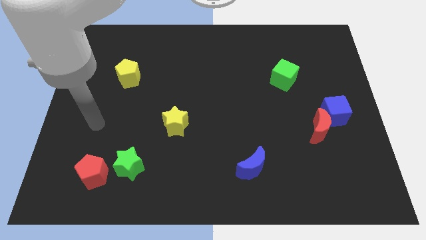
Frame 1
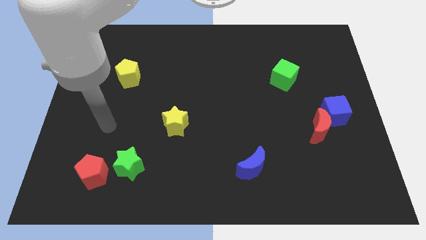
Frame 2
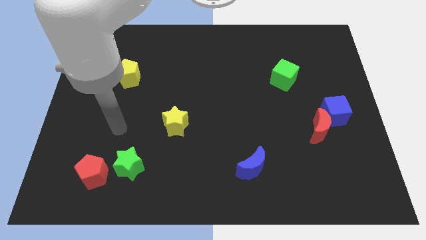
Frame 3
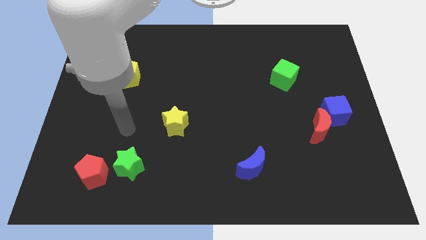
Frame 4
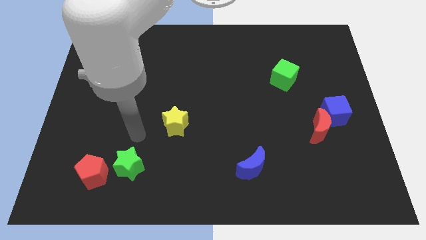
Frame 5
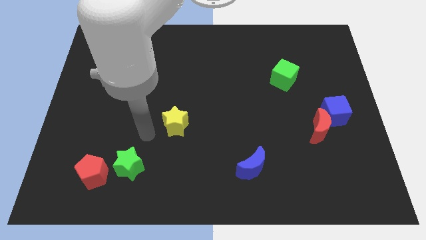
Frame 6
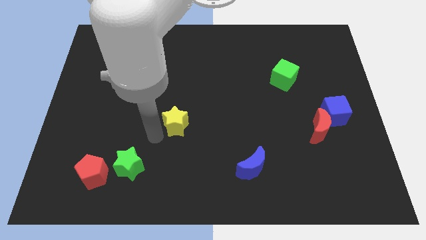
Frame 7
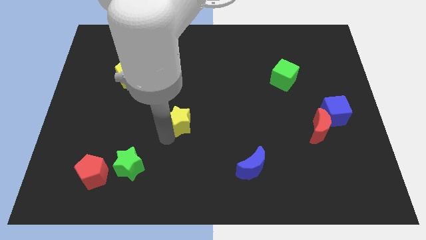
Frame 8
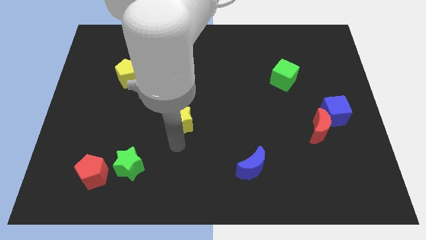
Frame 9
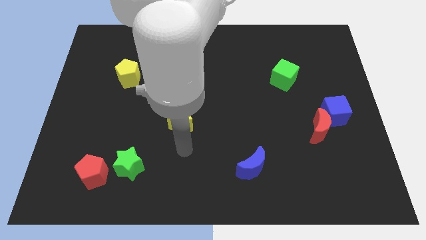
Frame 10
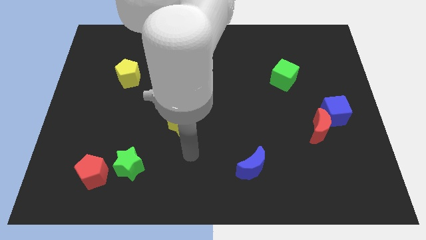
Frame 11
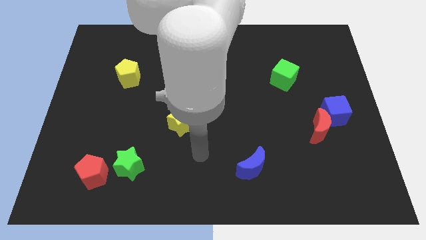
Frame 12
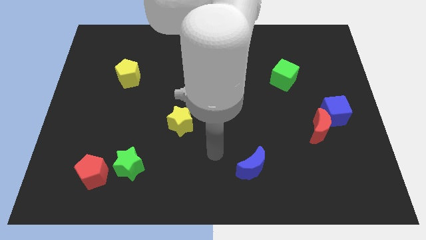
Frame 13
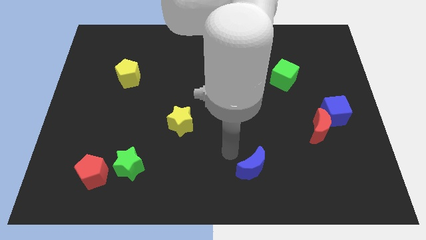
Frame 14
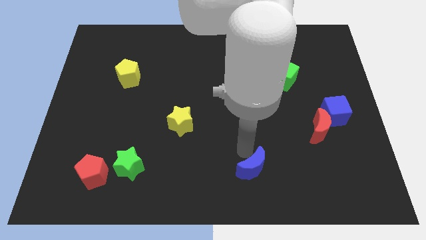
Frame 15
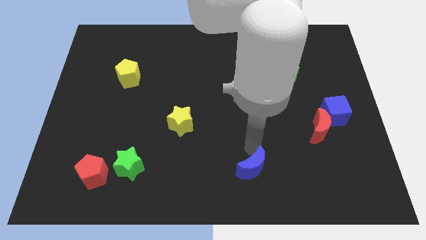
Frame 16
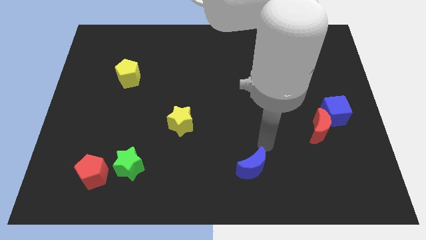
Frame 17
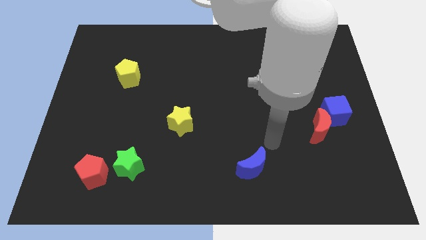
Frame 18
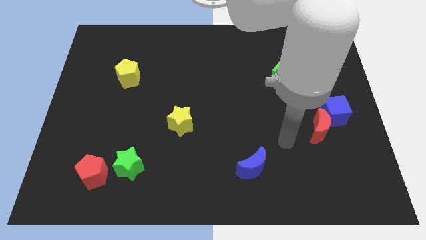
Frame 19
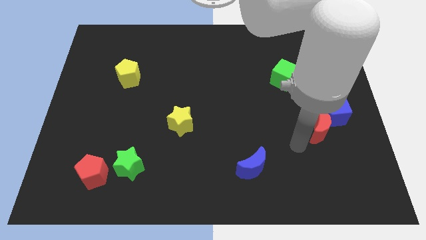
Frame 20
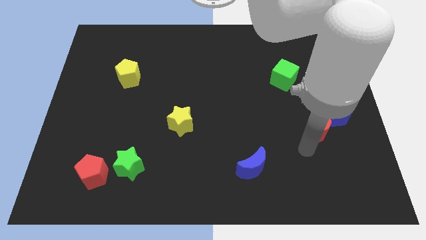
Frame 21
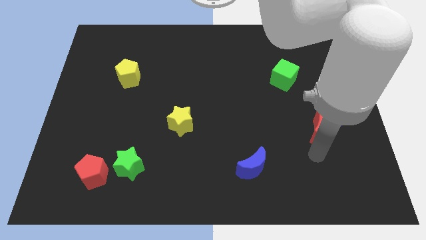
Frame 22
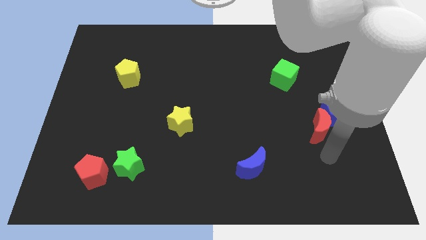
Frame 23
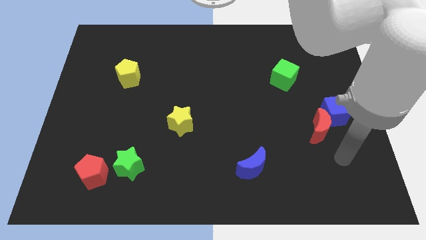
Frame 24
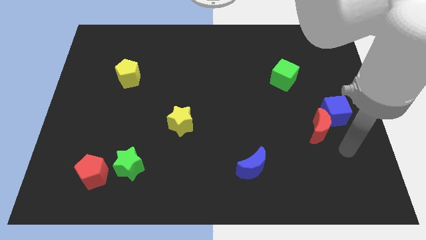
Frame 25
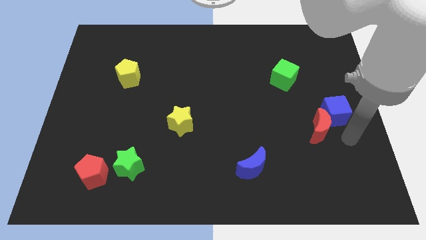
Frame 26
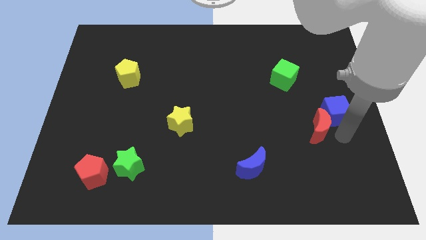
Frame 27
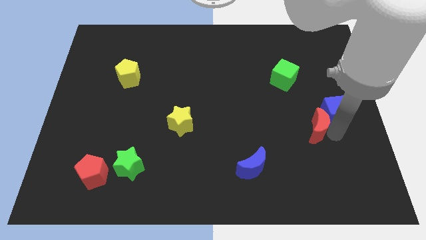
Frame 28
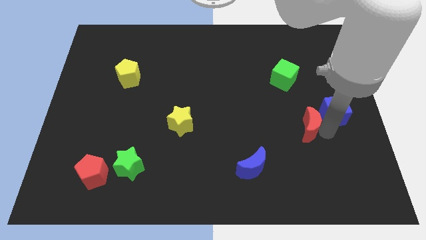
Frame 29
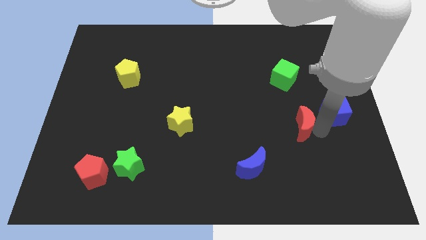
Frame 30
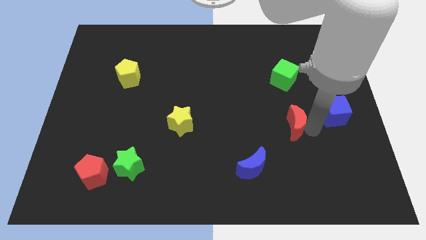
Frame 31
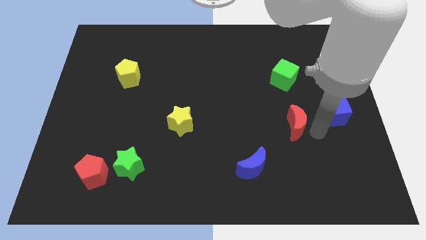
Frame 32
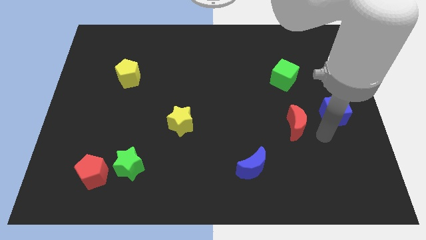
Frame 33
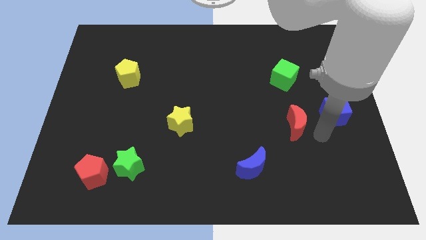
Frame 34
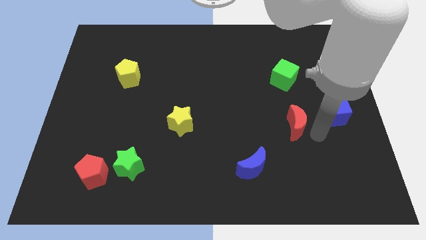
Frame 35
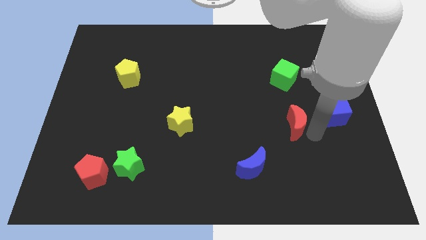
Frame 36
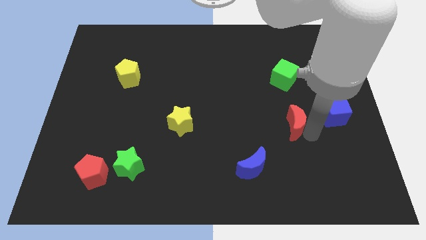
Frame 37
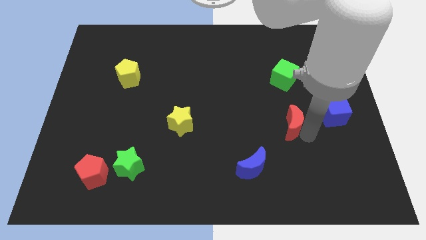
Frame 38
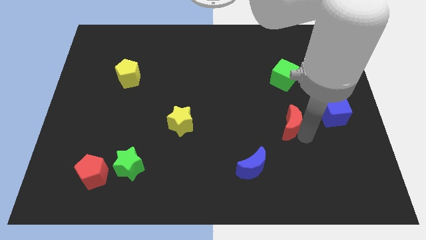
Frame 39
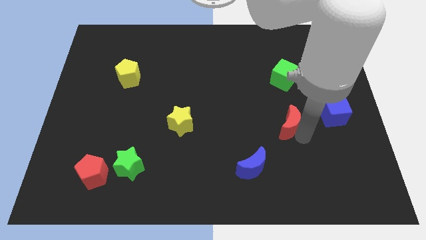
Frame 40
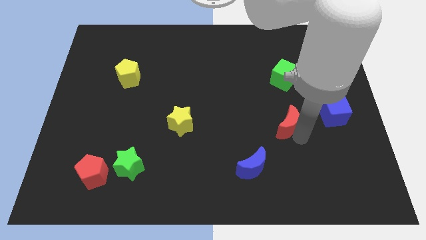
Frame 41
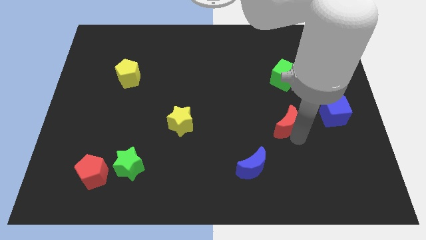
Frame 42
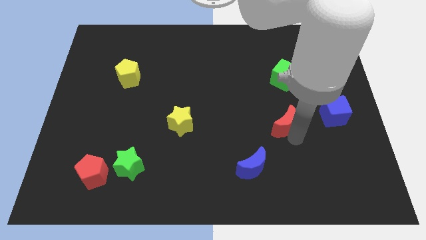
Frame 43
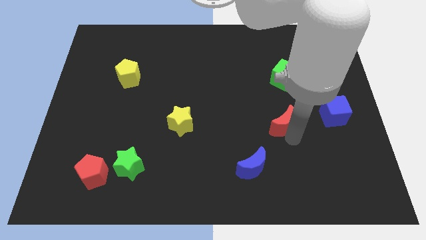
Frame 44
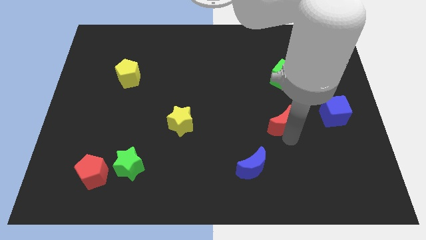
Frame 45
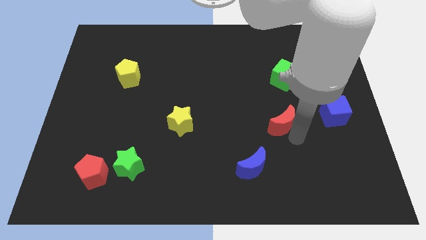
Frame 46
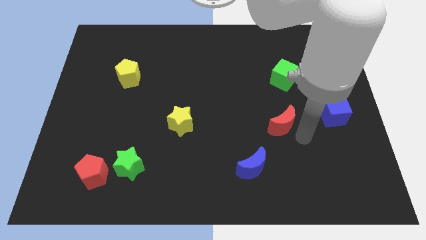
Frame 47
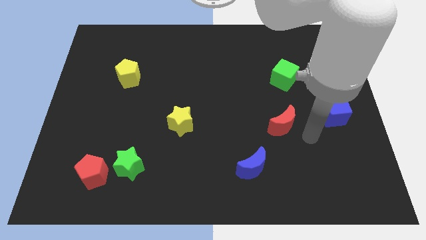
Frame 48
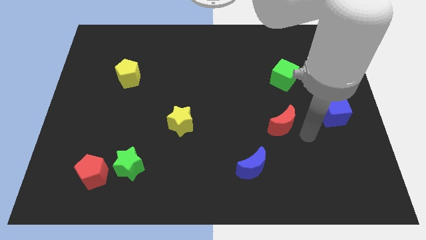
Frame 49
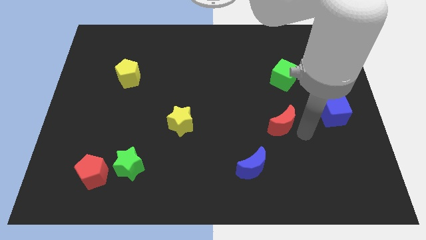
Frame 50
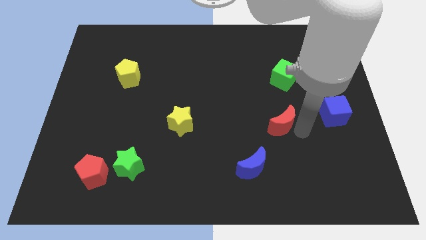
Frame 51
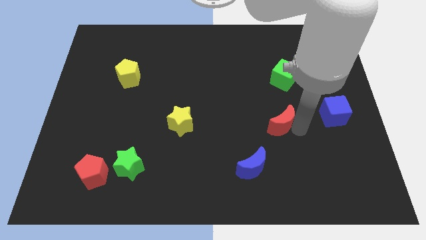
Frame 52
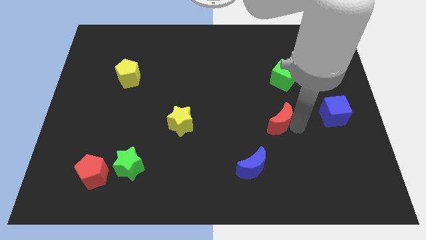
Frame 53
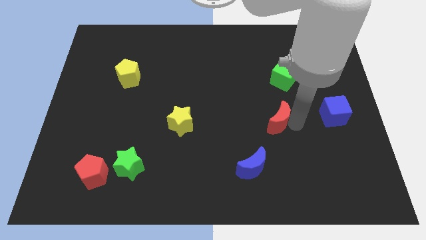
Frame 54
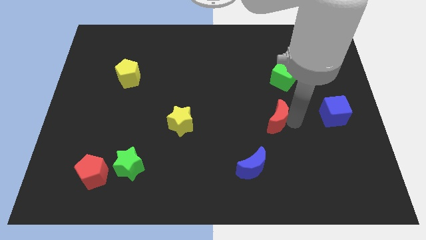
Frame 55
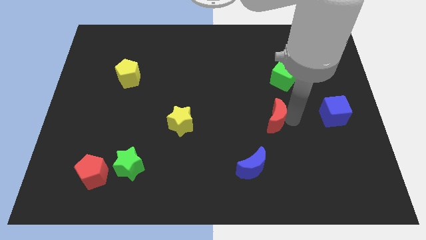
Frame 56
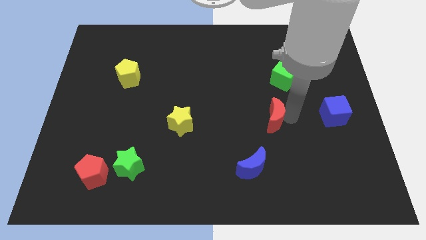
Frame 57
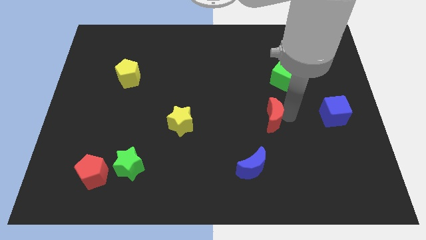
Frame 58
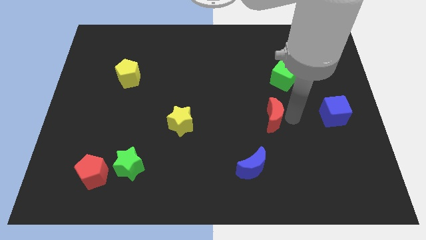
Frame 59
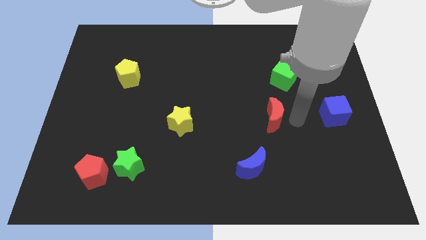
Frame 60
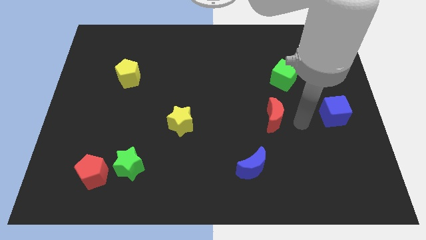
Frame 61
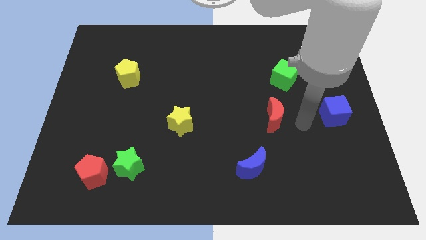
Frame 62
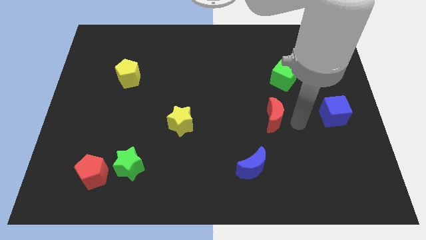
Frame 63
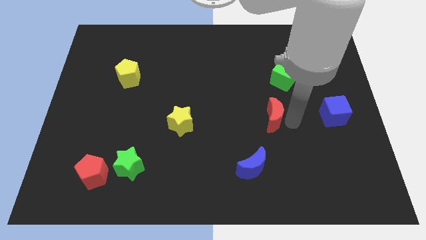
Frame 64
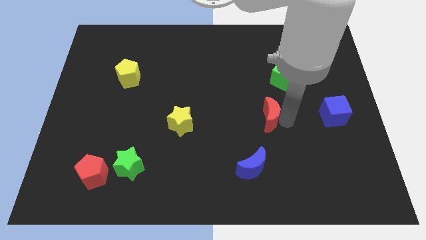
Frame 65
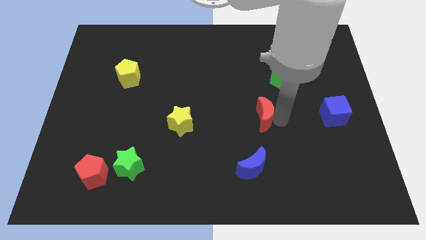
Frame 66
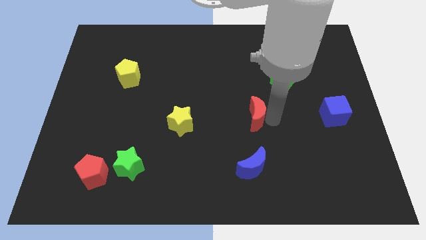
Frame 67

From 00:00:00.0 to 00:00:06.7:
put the red moon to the center of the board
